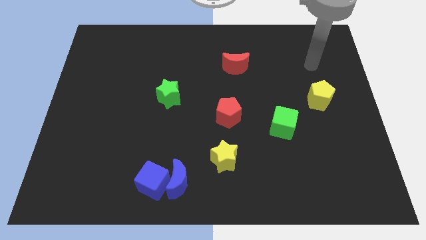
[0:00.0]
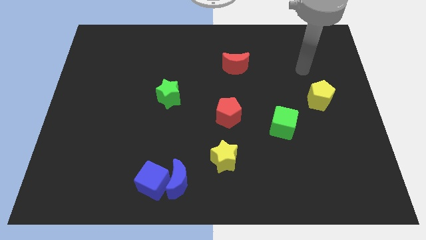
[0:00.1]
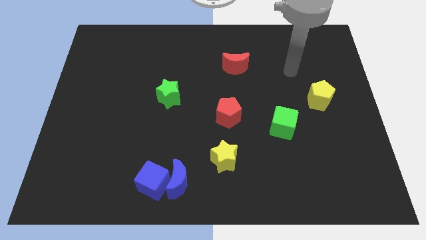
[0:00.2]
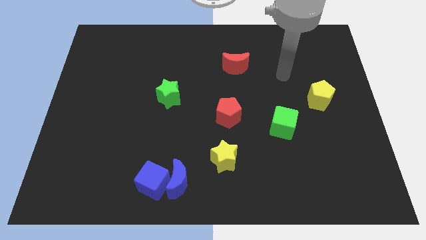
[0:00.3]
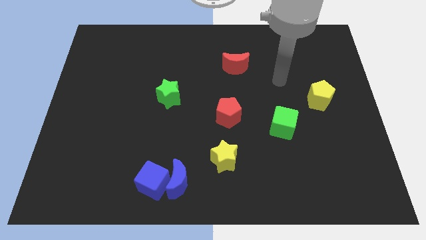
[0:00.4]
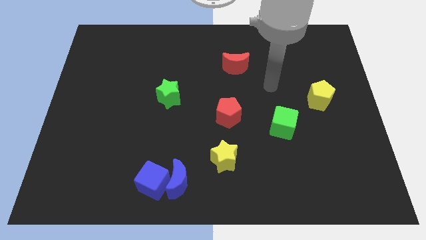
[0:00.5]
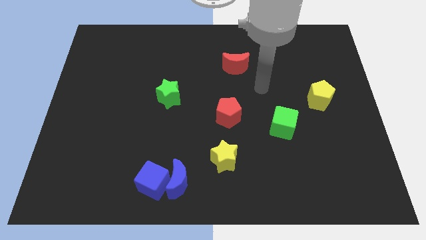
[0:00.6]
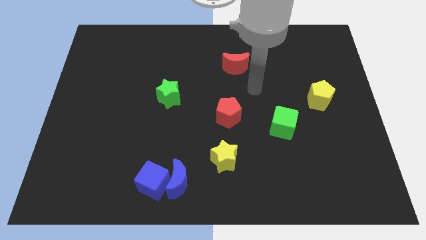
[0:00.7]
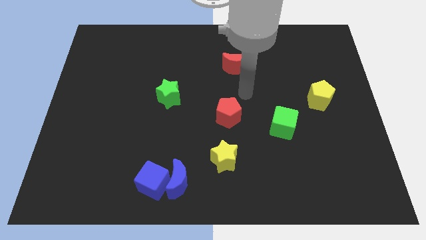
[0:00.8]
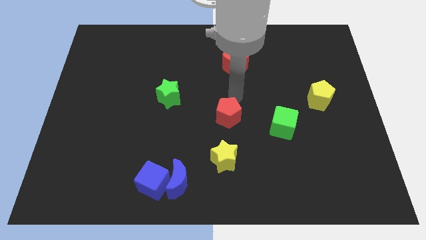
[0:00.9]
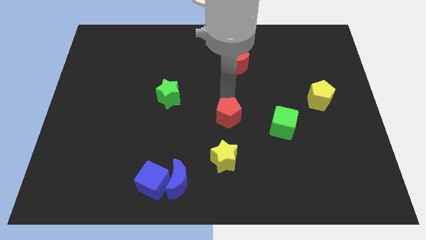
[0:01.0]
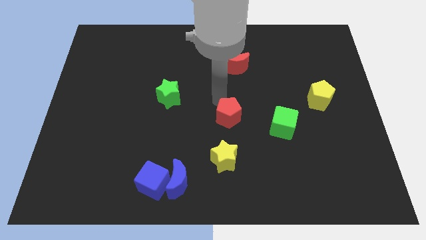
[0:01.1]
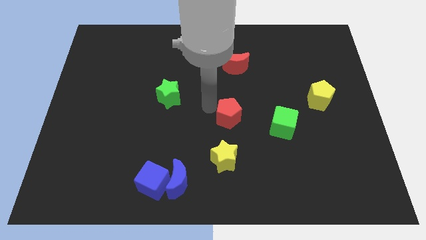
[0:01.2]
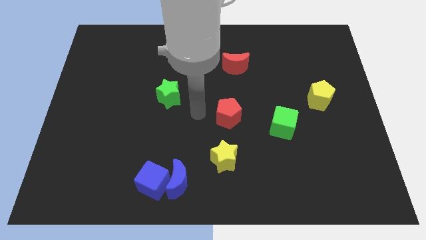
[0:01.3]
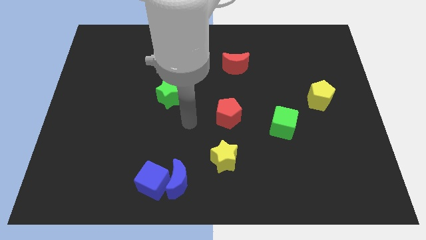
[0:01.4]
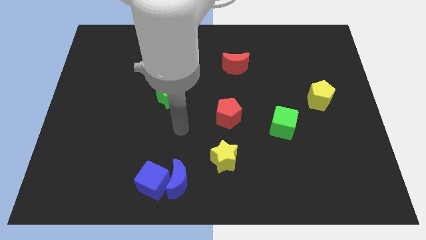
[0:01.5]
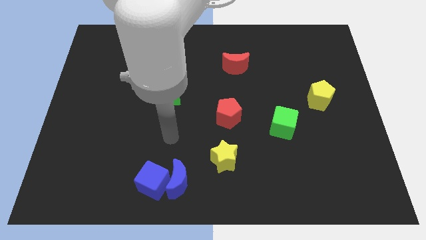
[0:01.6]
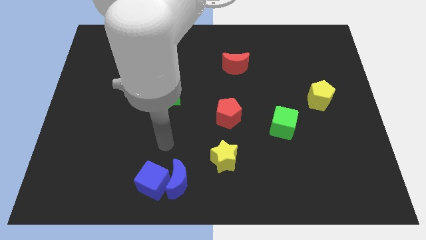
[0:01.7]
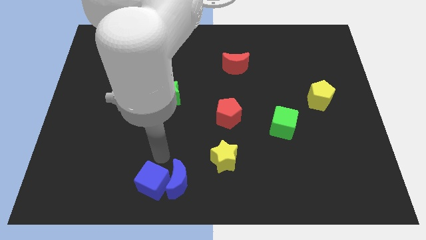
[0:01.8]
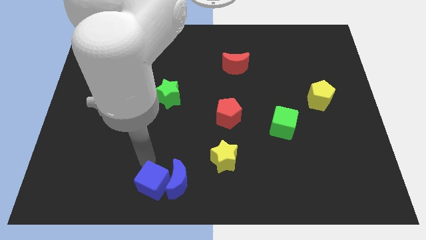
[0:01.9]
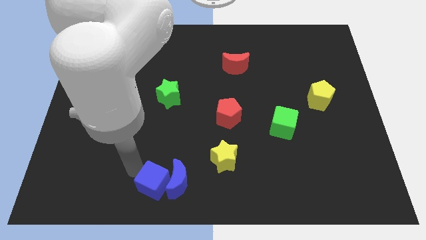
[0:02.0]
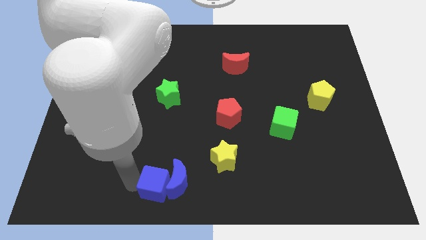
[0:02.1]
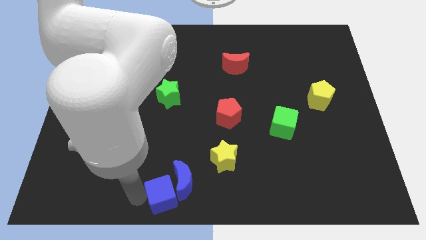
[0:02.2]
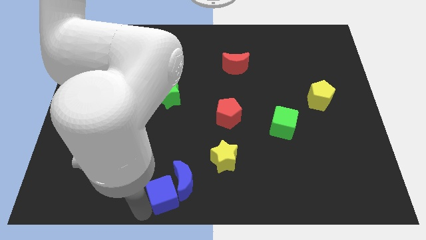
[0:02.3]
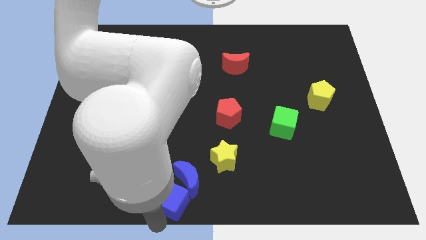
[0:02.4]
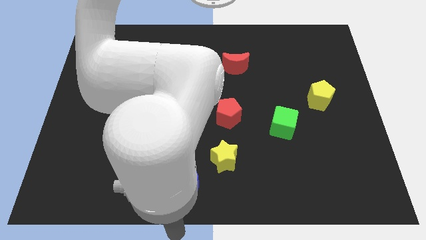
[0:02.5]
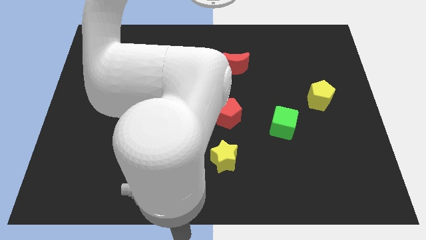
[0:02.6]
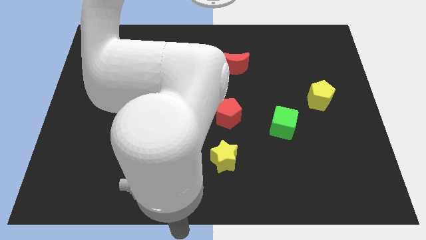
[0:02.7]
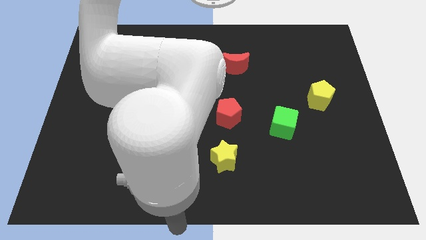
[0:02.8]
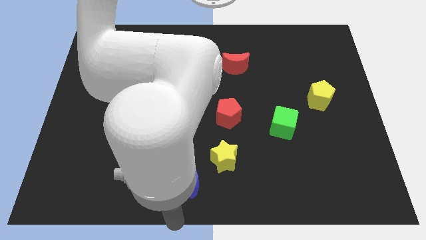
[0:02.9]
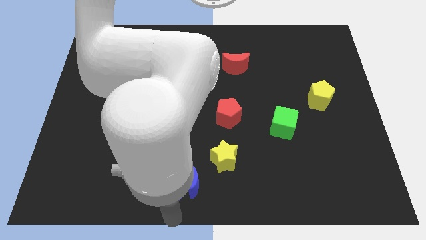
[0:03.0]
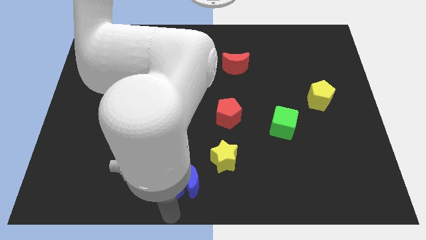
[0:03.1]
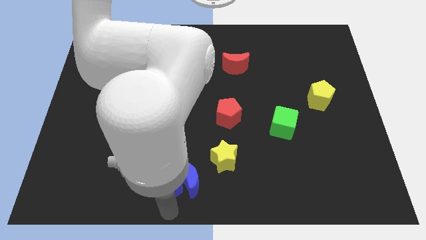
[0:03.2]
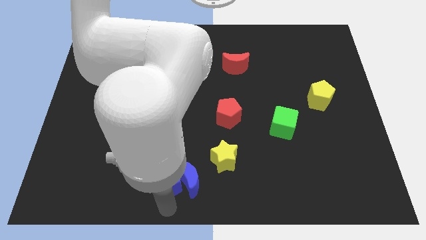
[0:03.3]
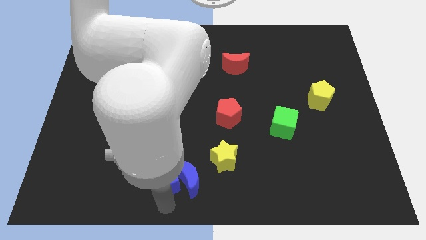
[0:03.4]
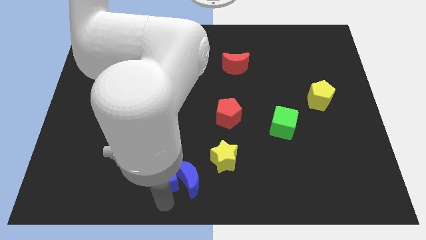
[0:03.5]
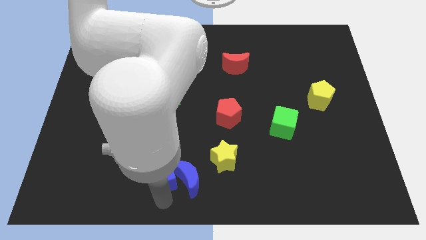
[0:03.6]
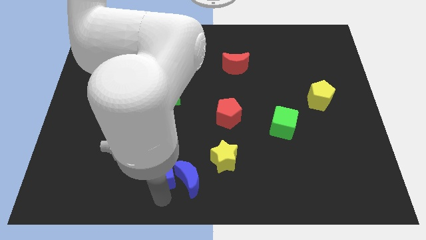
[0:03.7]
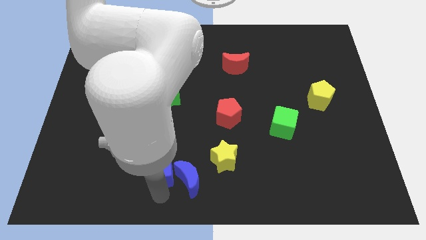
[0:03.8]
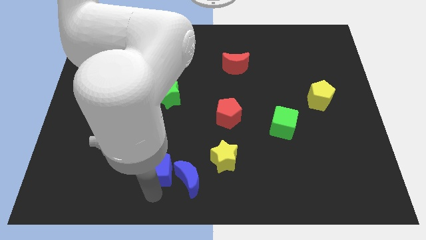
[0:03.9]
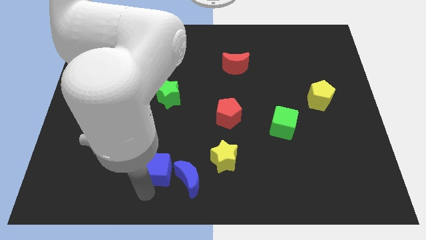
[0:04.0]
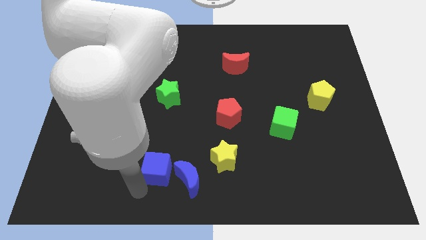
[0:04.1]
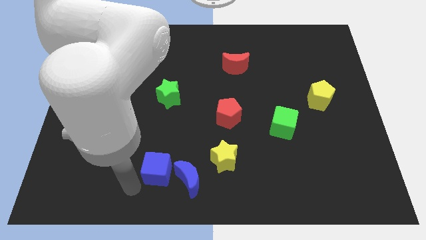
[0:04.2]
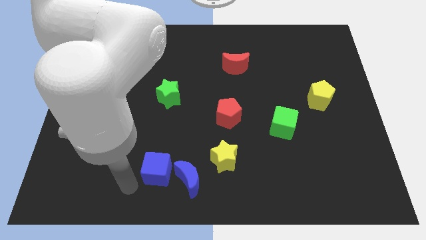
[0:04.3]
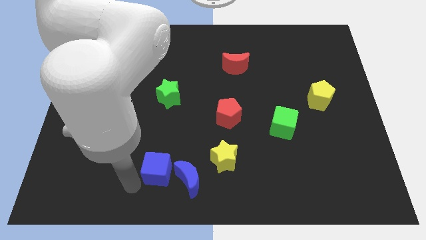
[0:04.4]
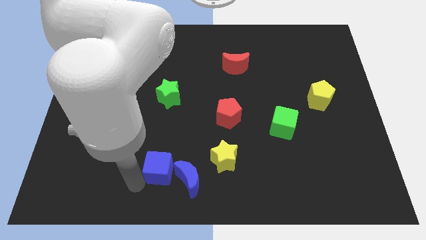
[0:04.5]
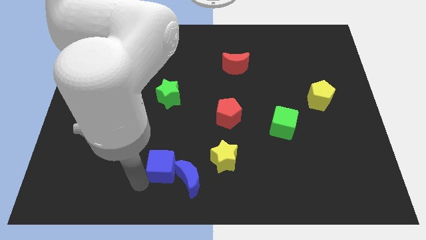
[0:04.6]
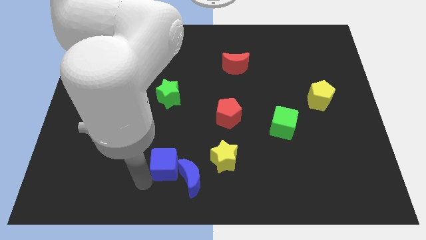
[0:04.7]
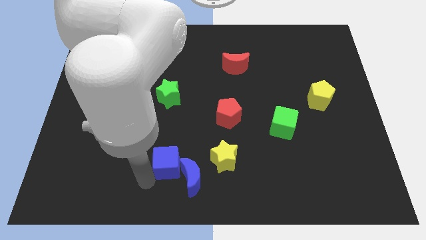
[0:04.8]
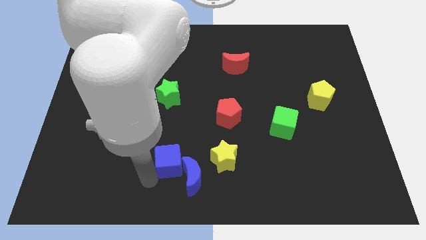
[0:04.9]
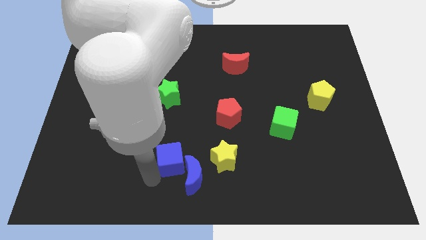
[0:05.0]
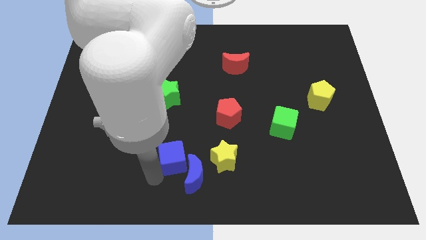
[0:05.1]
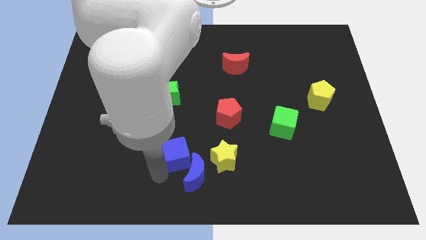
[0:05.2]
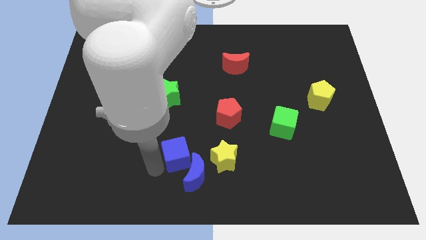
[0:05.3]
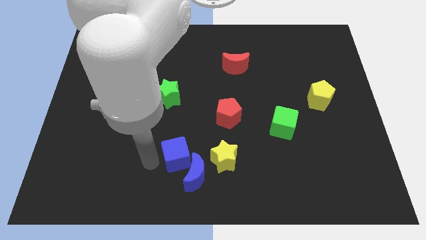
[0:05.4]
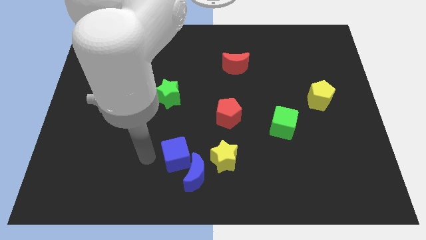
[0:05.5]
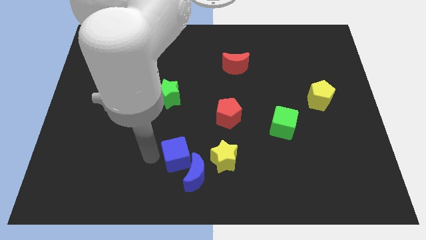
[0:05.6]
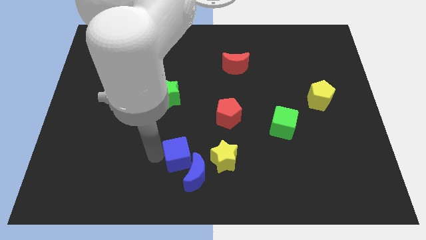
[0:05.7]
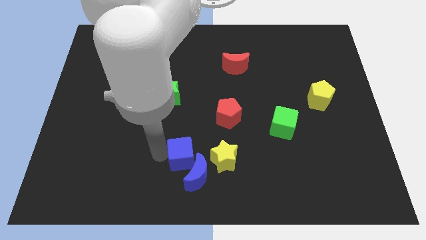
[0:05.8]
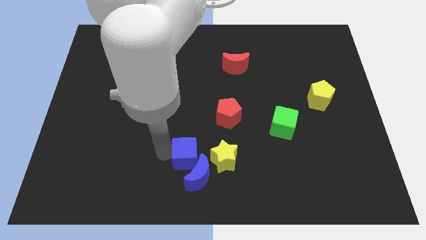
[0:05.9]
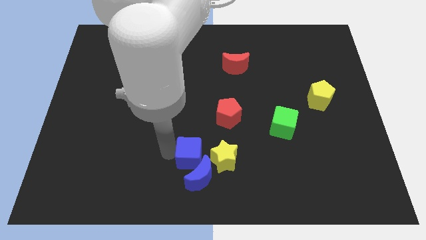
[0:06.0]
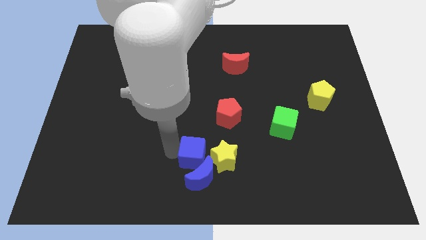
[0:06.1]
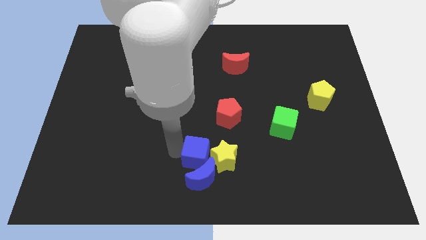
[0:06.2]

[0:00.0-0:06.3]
slide the blue cube close to the yellow star
